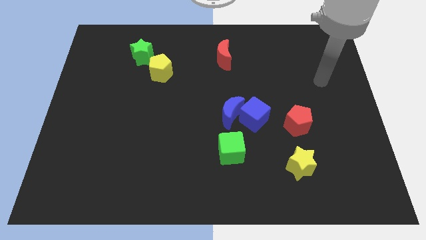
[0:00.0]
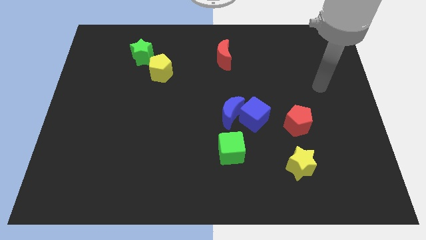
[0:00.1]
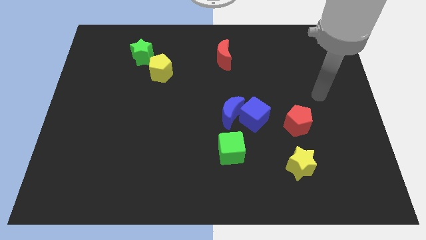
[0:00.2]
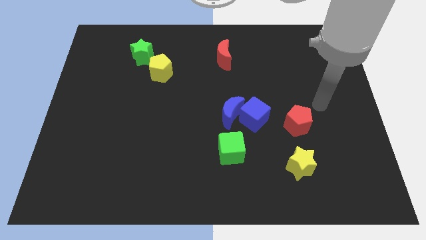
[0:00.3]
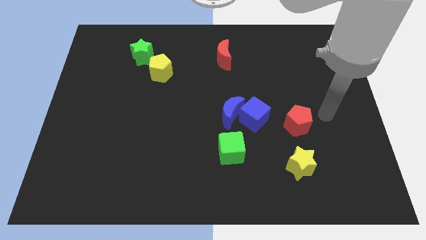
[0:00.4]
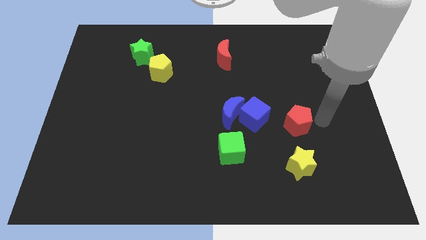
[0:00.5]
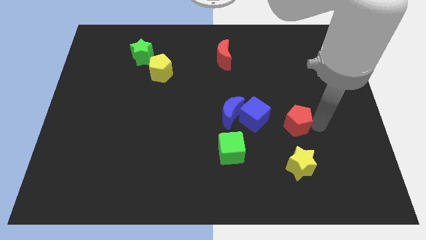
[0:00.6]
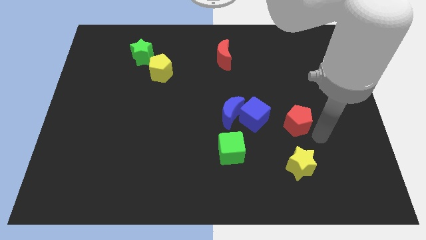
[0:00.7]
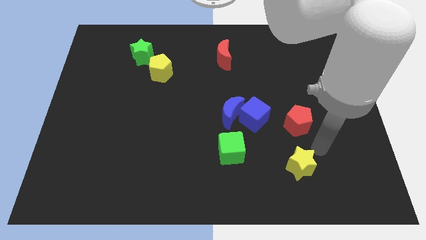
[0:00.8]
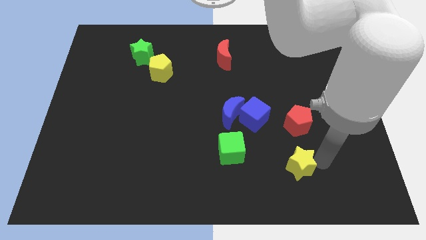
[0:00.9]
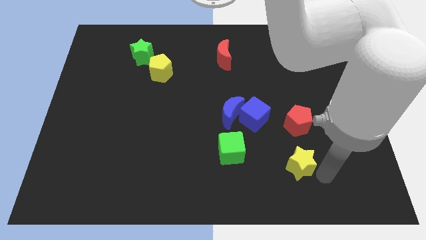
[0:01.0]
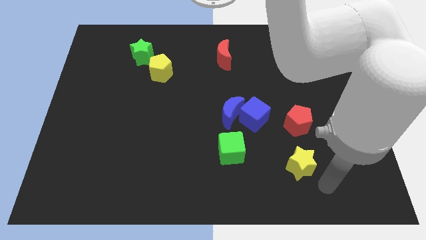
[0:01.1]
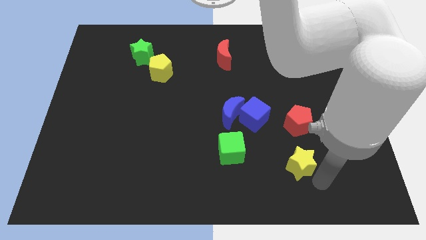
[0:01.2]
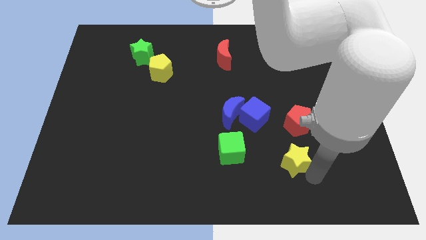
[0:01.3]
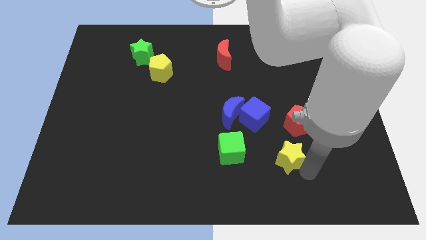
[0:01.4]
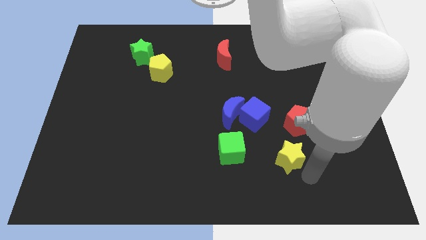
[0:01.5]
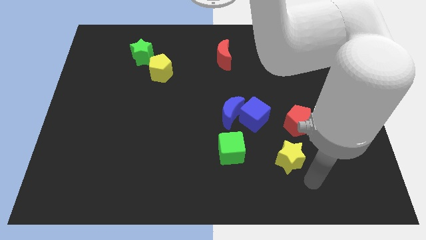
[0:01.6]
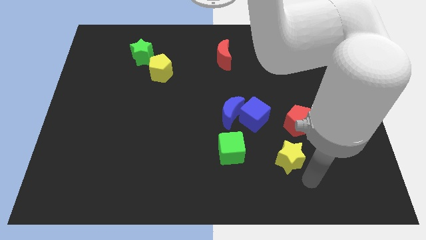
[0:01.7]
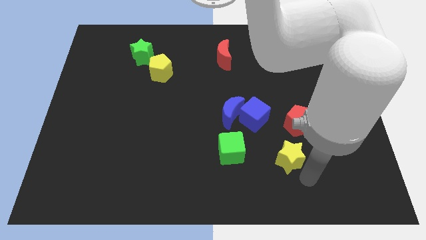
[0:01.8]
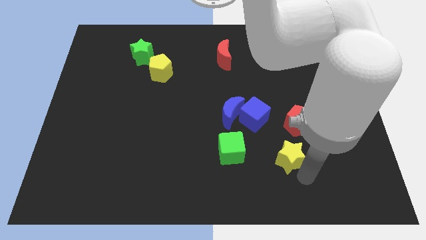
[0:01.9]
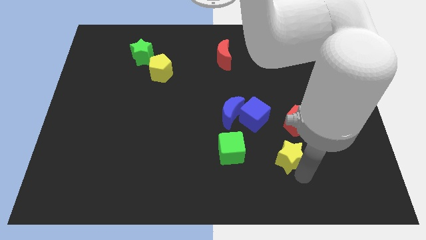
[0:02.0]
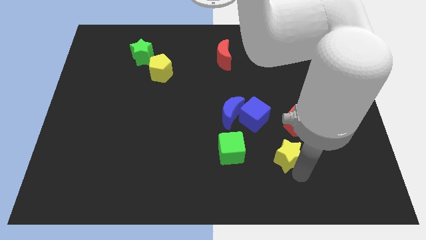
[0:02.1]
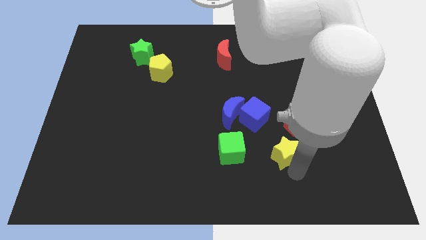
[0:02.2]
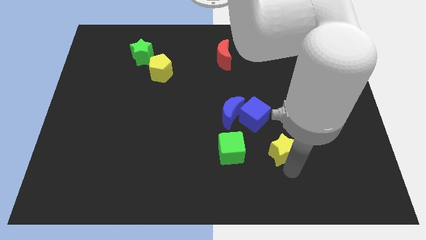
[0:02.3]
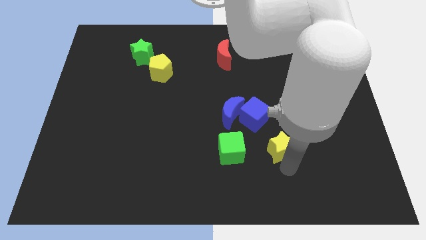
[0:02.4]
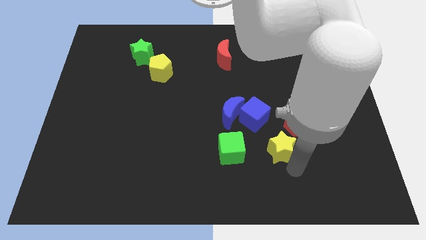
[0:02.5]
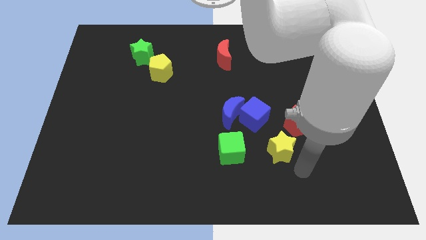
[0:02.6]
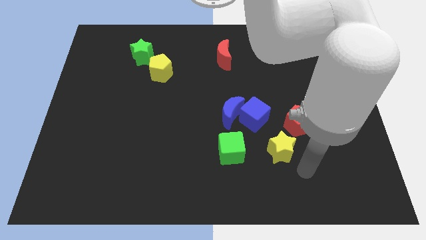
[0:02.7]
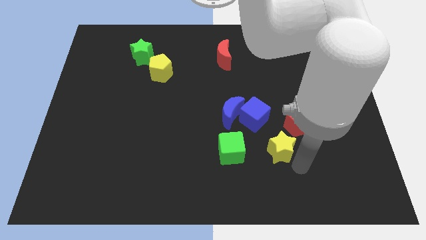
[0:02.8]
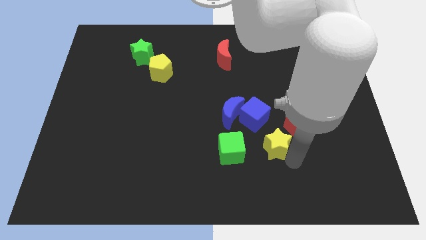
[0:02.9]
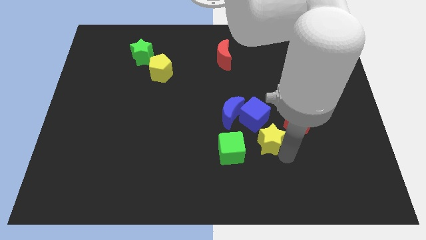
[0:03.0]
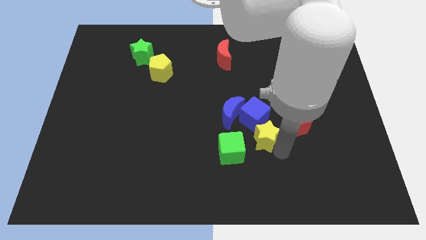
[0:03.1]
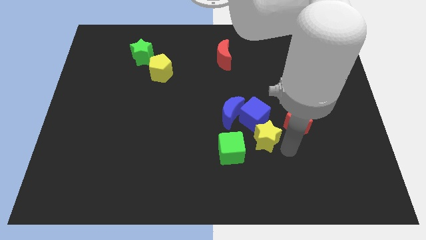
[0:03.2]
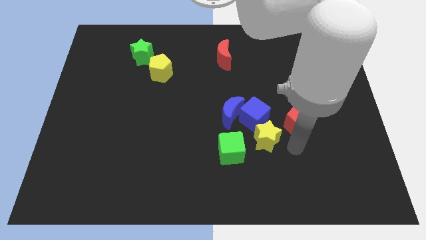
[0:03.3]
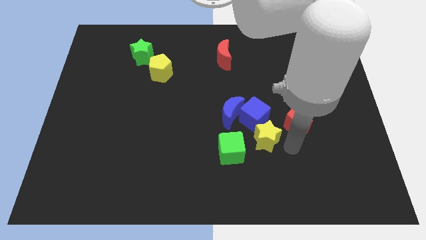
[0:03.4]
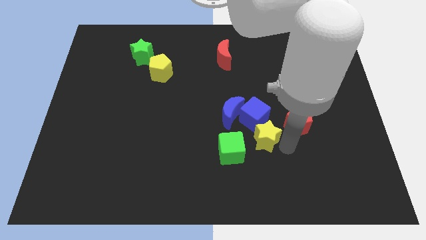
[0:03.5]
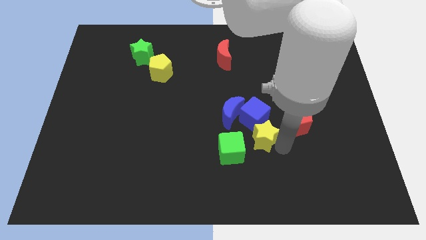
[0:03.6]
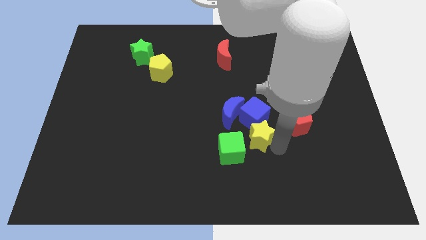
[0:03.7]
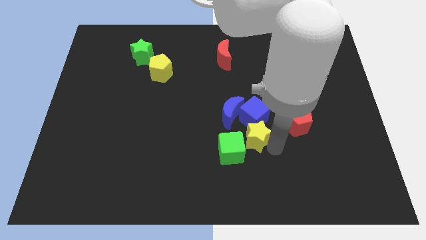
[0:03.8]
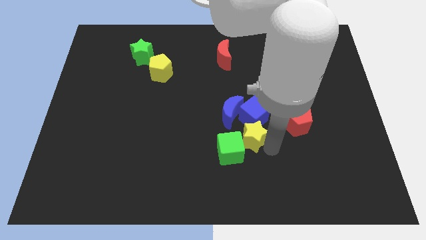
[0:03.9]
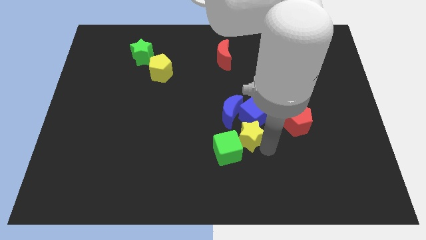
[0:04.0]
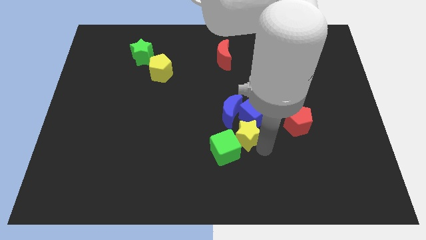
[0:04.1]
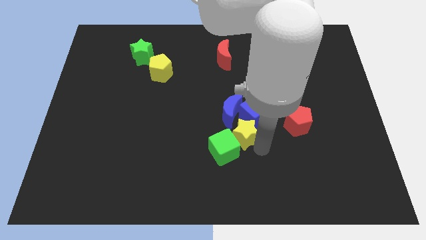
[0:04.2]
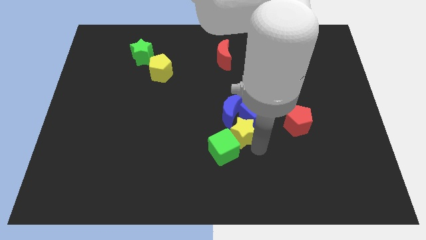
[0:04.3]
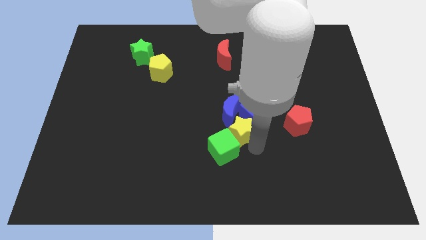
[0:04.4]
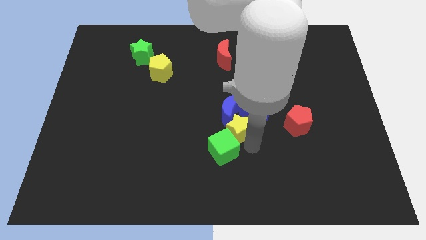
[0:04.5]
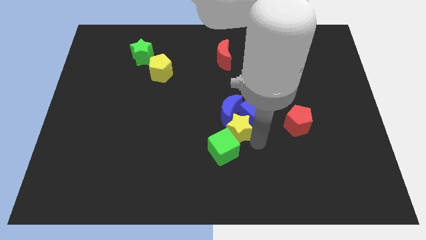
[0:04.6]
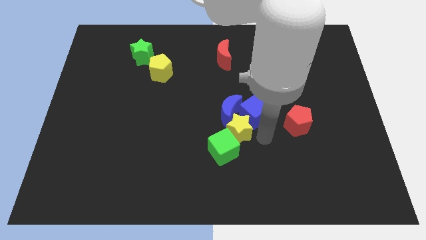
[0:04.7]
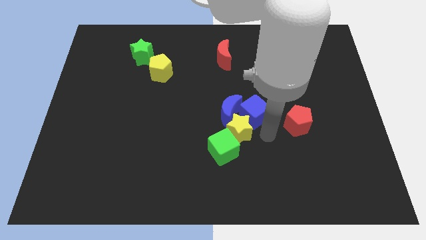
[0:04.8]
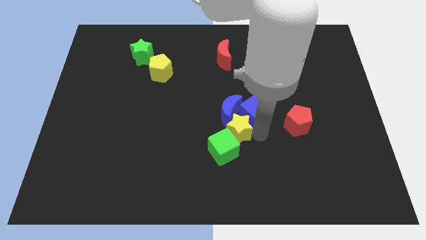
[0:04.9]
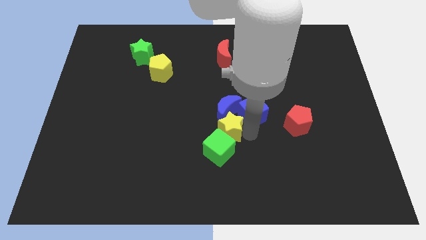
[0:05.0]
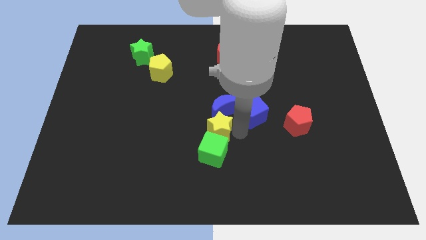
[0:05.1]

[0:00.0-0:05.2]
move the yellow star to the top left of the green cube
